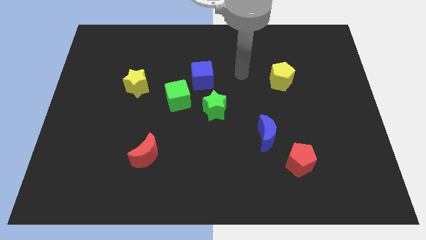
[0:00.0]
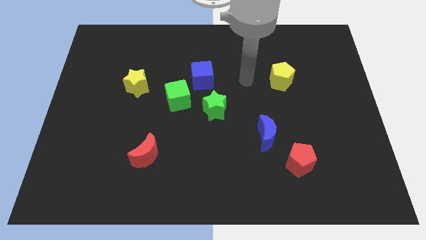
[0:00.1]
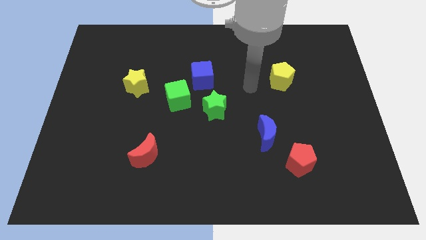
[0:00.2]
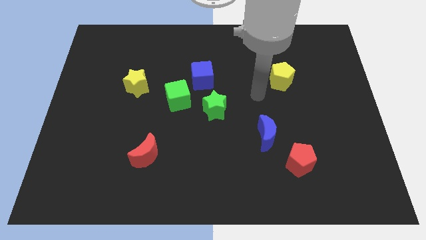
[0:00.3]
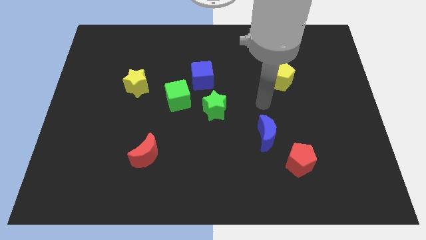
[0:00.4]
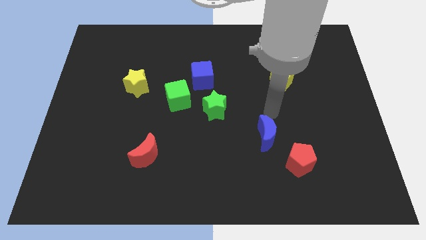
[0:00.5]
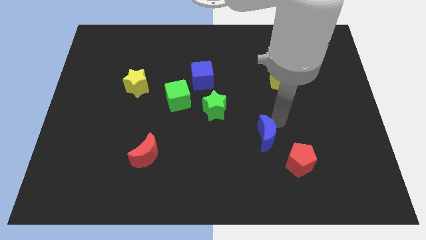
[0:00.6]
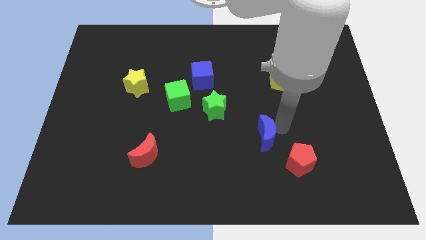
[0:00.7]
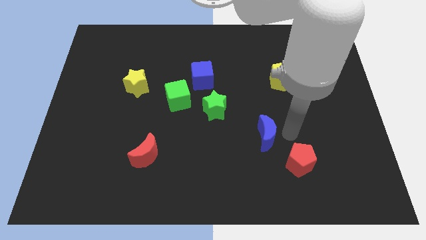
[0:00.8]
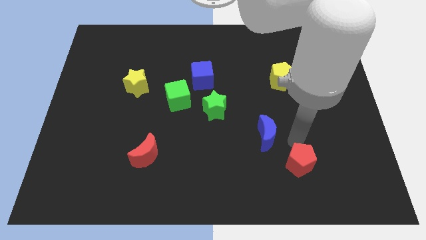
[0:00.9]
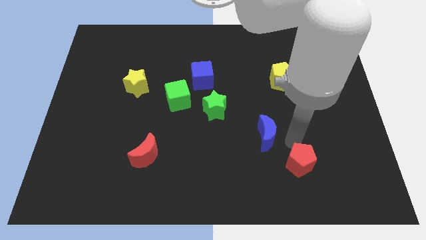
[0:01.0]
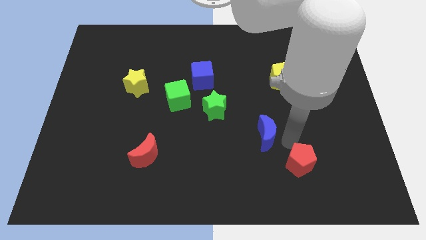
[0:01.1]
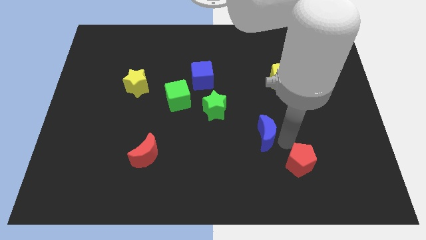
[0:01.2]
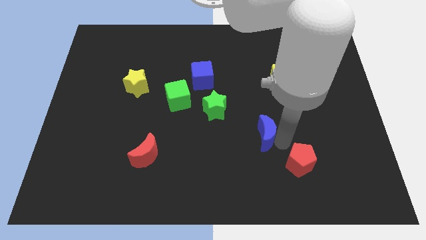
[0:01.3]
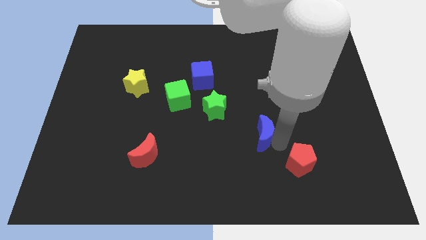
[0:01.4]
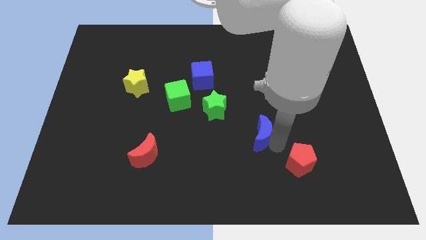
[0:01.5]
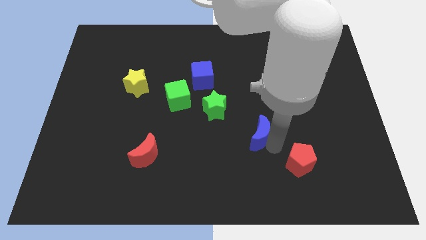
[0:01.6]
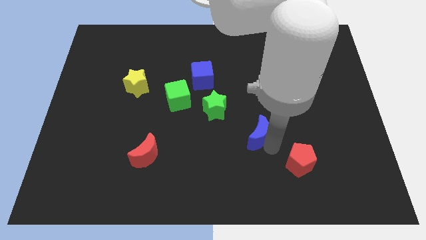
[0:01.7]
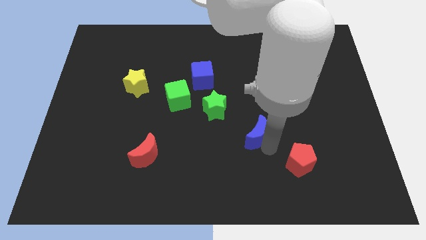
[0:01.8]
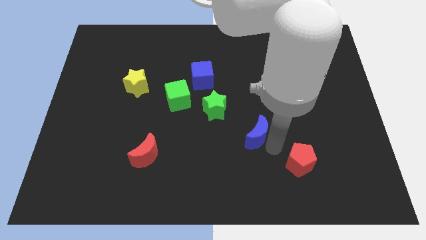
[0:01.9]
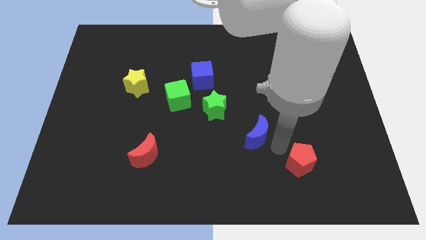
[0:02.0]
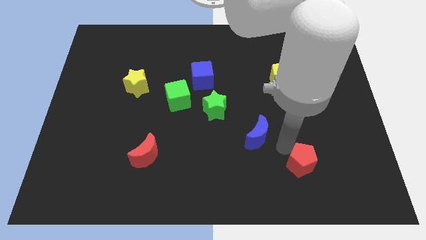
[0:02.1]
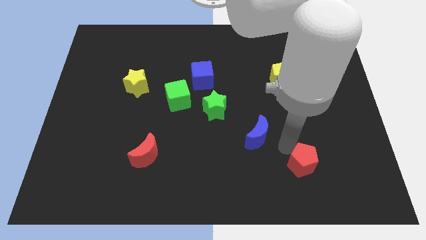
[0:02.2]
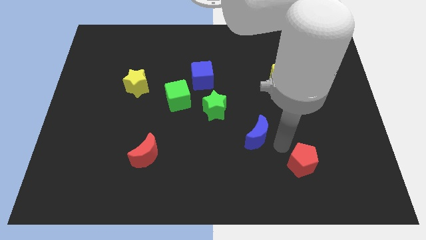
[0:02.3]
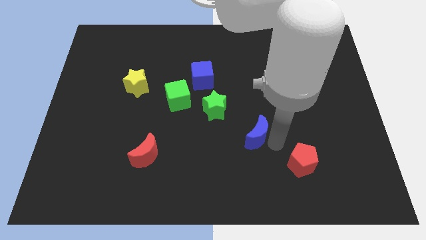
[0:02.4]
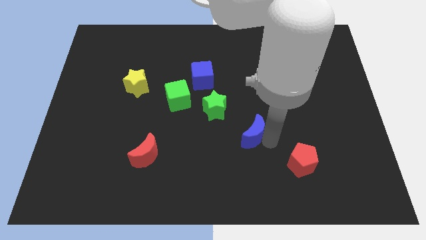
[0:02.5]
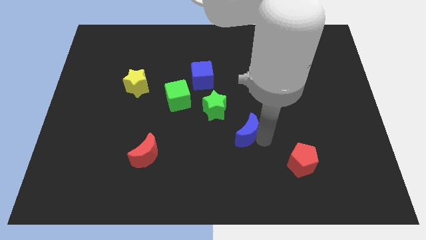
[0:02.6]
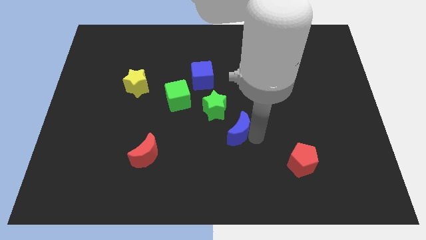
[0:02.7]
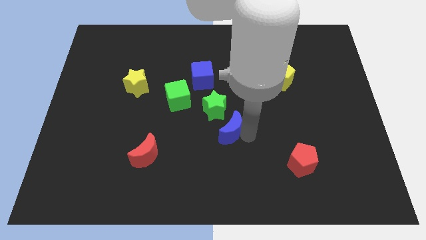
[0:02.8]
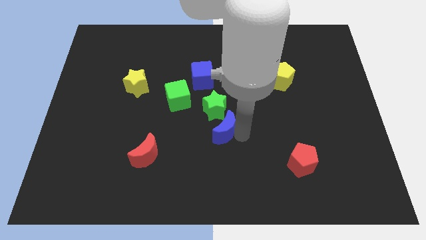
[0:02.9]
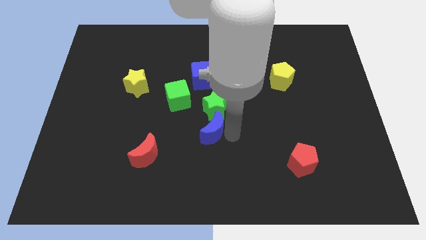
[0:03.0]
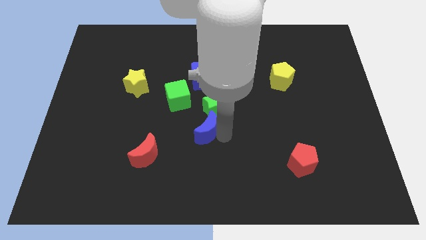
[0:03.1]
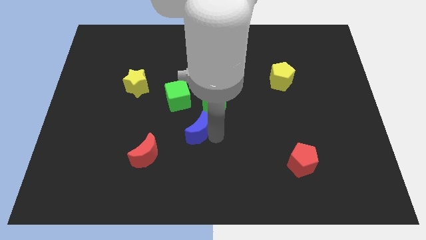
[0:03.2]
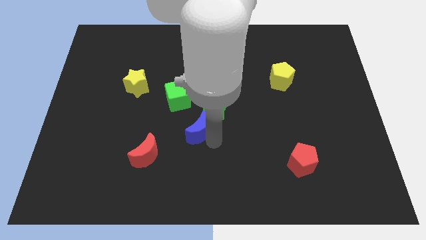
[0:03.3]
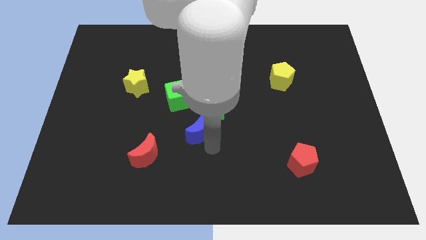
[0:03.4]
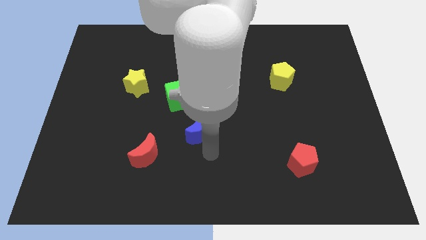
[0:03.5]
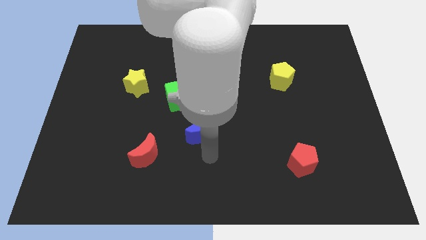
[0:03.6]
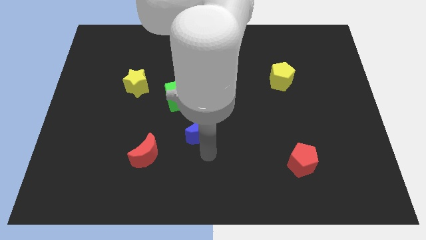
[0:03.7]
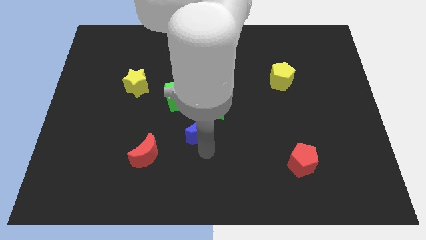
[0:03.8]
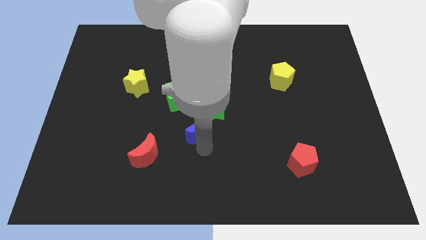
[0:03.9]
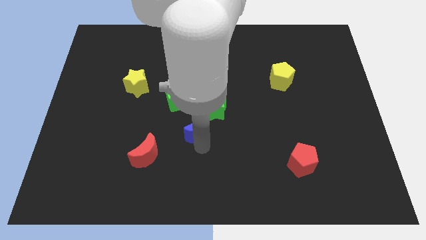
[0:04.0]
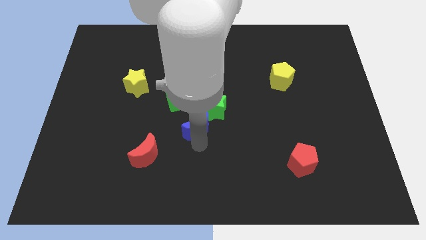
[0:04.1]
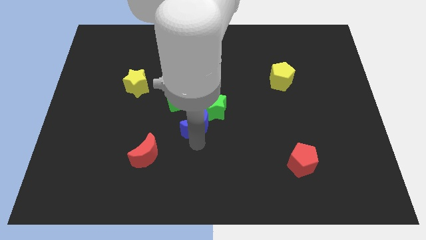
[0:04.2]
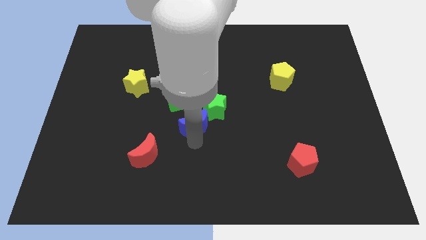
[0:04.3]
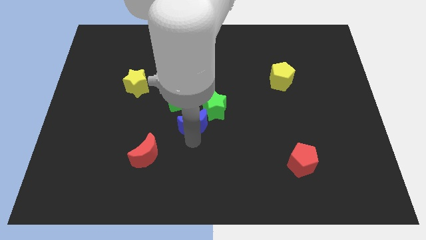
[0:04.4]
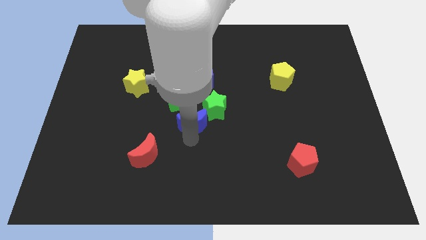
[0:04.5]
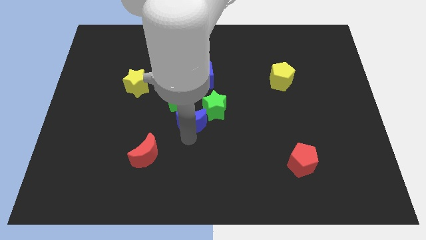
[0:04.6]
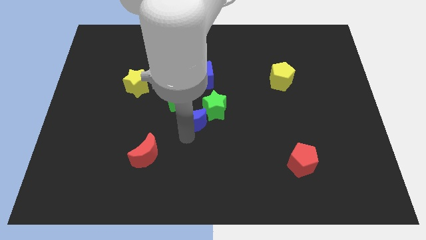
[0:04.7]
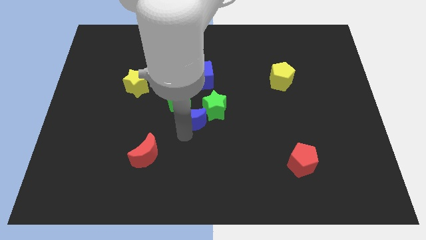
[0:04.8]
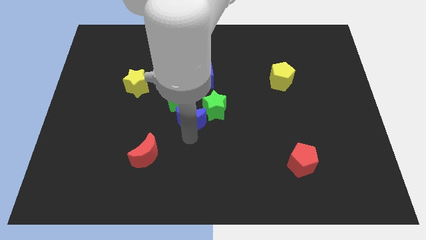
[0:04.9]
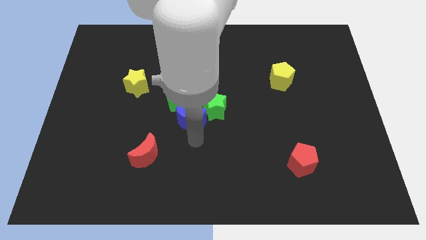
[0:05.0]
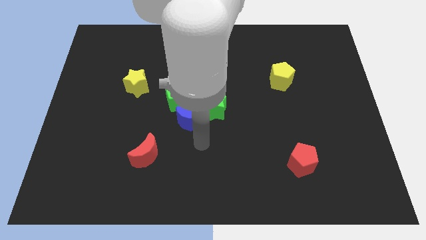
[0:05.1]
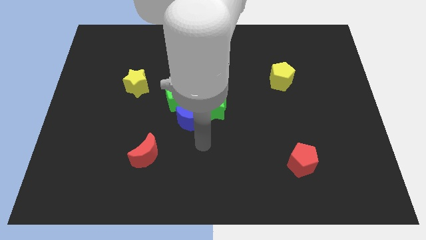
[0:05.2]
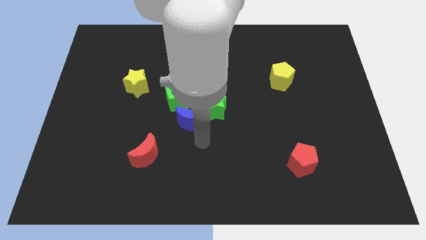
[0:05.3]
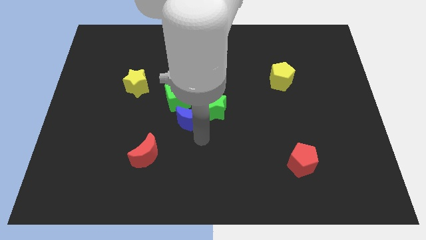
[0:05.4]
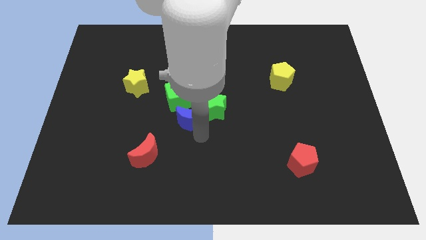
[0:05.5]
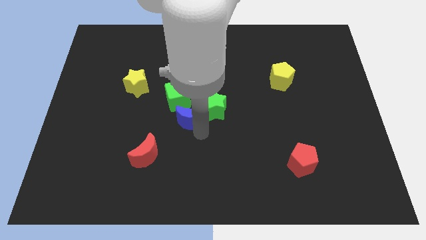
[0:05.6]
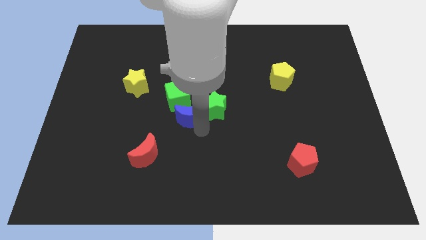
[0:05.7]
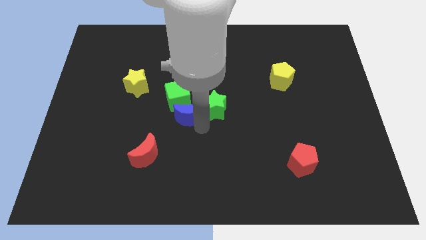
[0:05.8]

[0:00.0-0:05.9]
move the blue moon towards the green cube

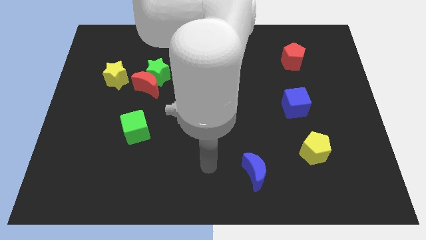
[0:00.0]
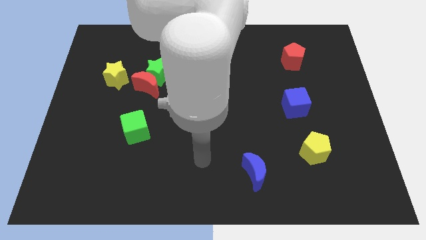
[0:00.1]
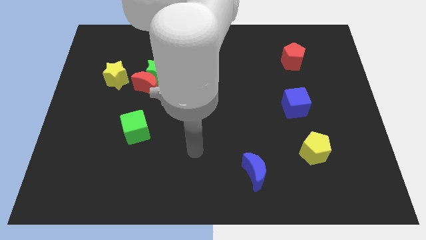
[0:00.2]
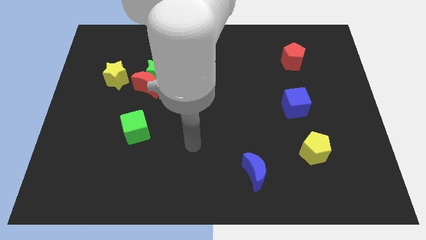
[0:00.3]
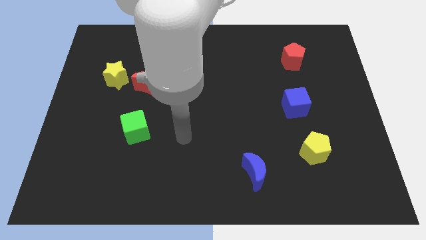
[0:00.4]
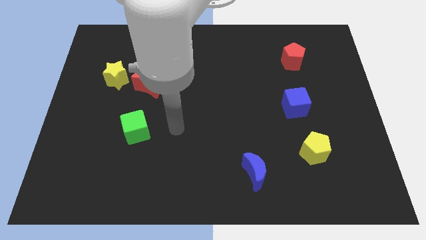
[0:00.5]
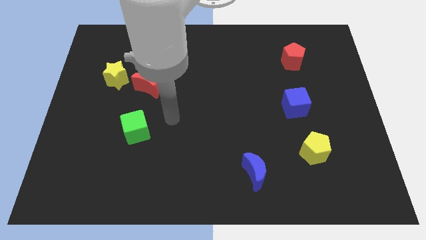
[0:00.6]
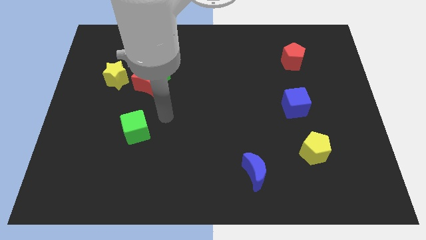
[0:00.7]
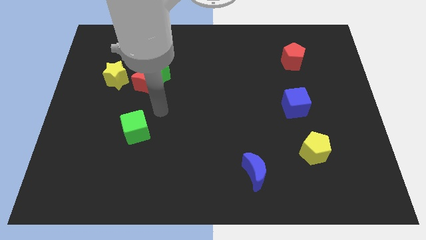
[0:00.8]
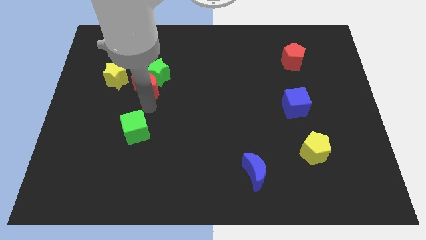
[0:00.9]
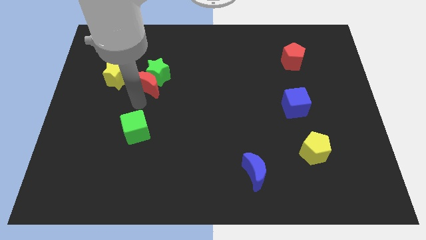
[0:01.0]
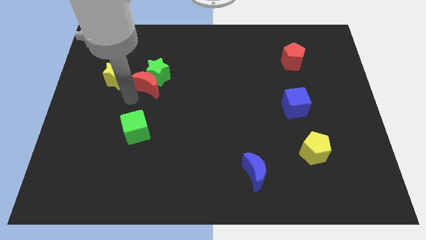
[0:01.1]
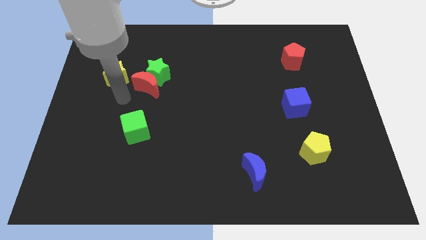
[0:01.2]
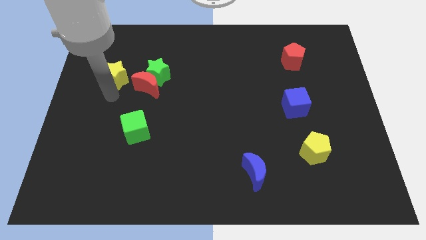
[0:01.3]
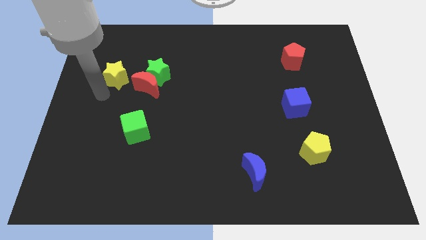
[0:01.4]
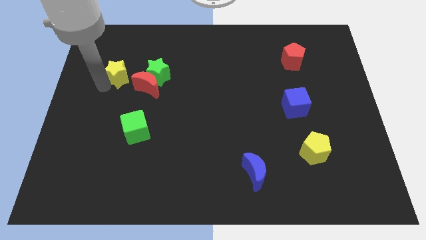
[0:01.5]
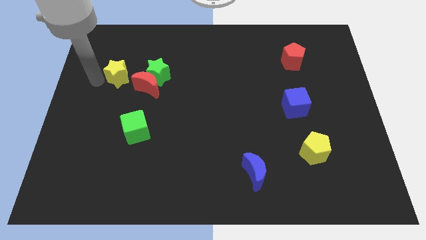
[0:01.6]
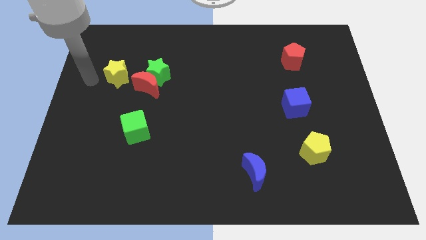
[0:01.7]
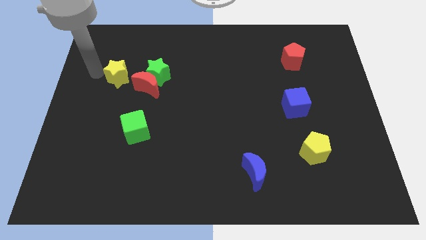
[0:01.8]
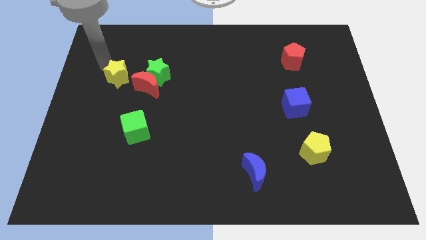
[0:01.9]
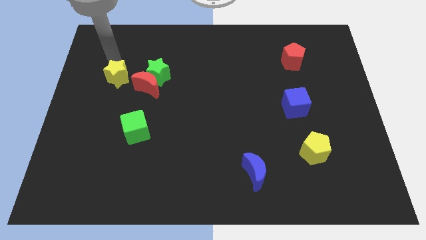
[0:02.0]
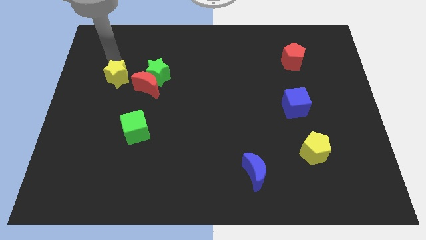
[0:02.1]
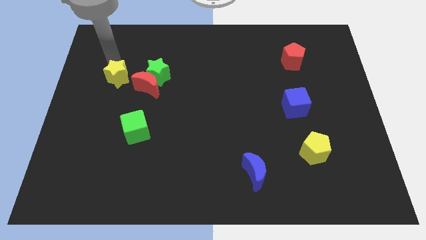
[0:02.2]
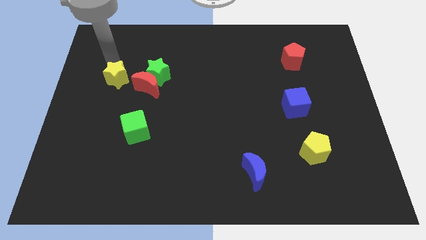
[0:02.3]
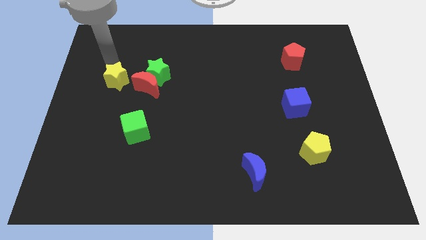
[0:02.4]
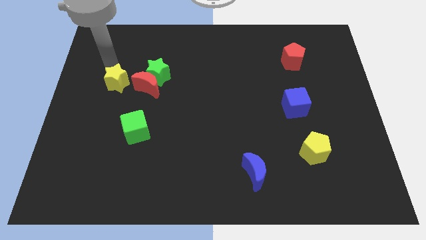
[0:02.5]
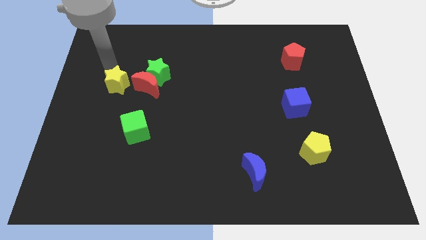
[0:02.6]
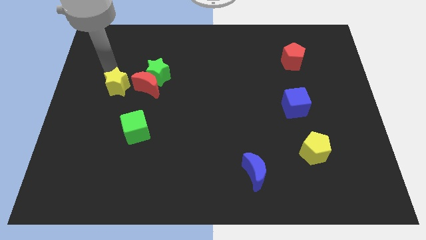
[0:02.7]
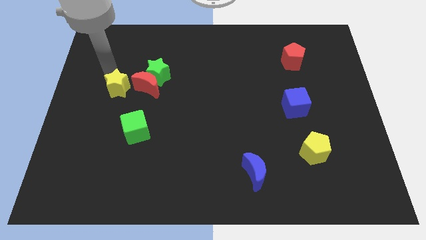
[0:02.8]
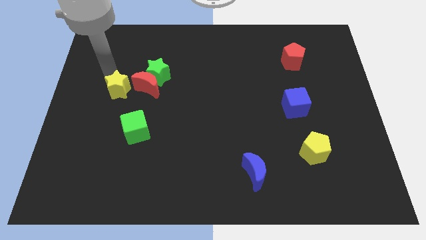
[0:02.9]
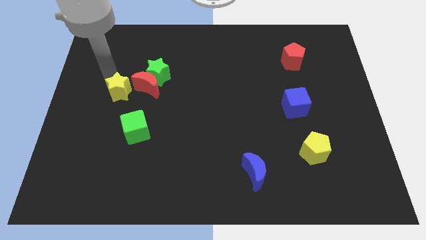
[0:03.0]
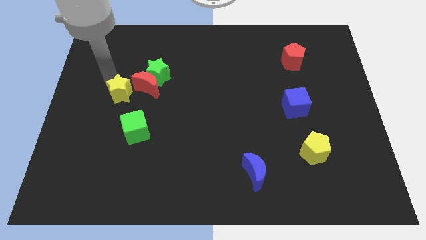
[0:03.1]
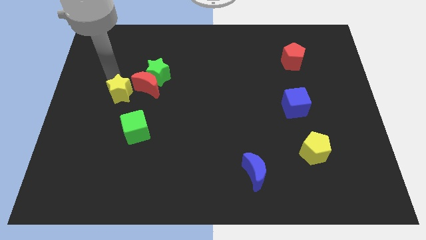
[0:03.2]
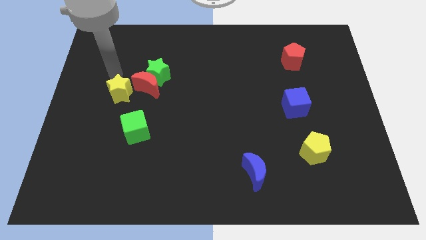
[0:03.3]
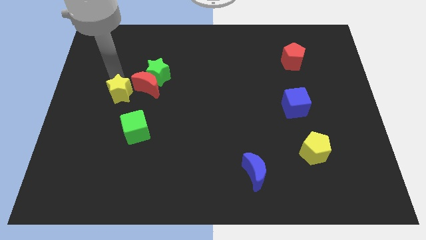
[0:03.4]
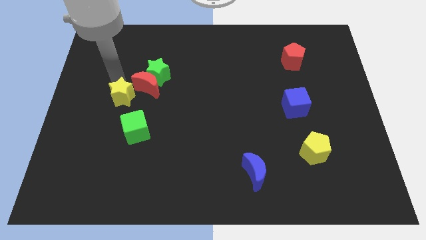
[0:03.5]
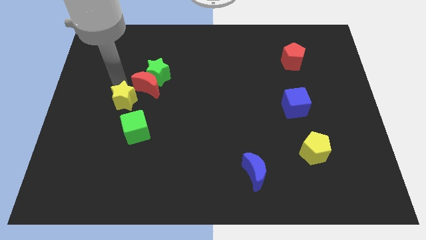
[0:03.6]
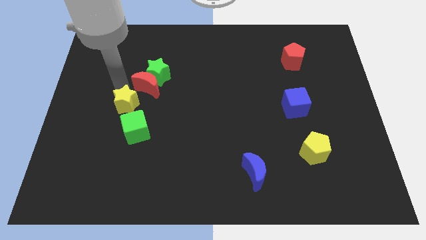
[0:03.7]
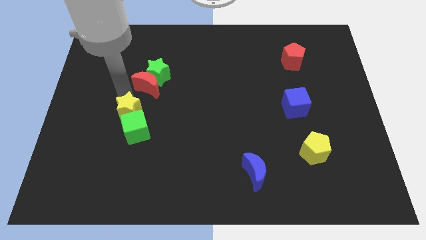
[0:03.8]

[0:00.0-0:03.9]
move the yellow star close to the green cube
